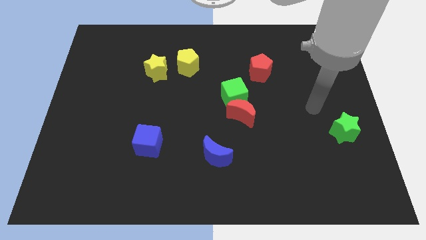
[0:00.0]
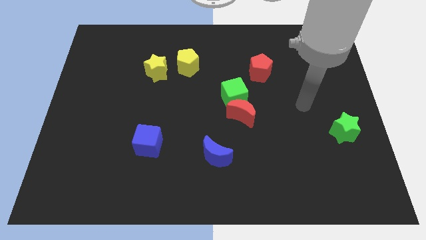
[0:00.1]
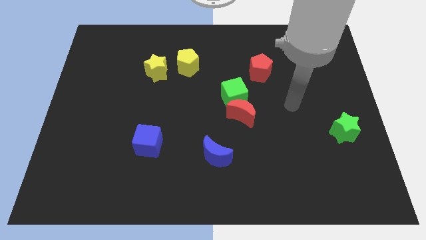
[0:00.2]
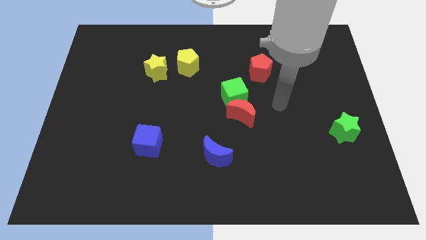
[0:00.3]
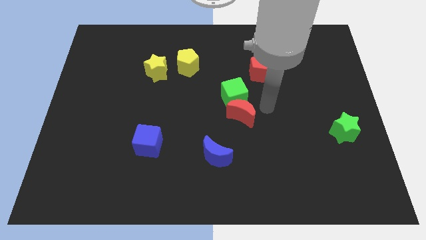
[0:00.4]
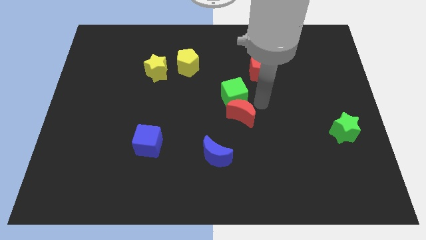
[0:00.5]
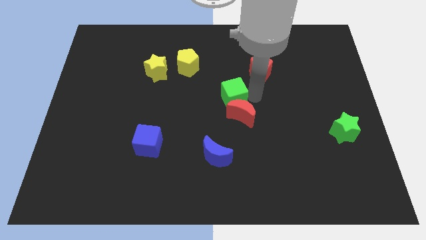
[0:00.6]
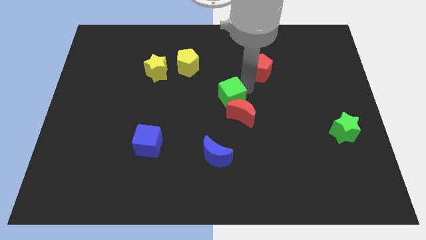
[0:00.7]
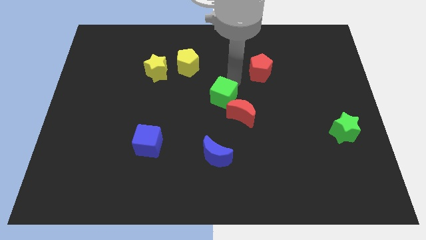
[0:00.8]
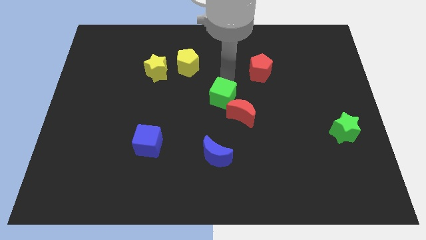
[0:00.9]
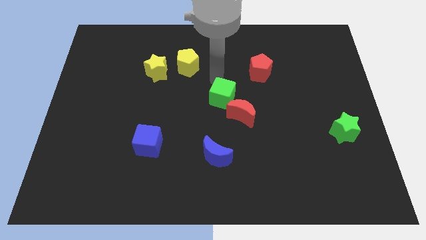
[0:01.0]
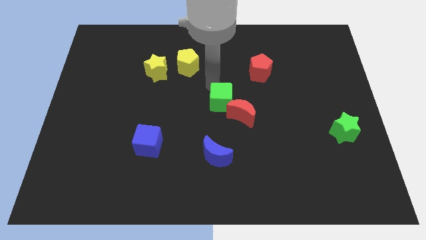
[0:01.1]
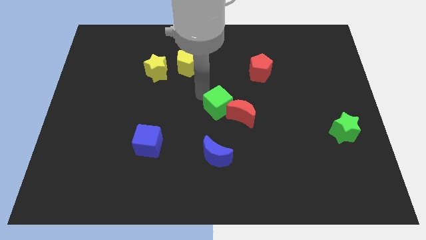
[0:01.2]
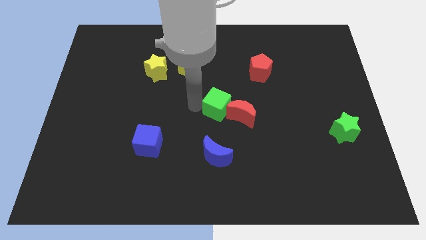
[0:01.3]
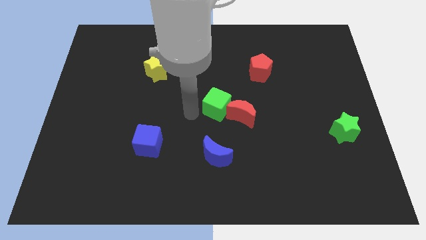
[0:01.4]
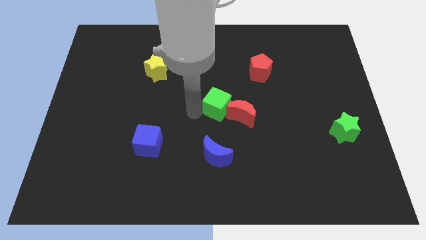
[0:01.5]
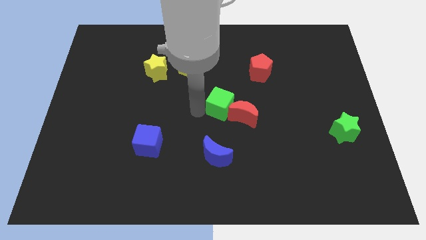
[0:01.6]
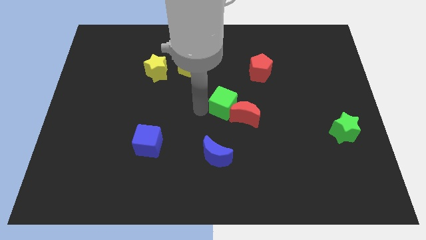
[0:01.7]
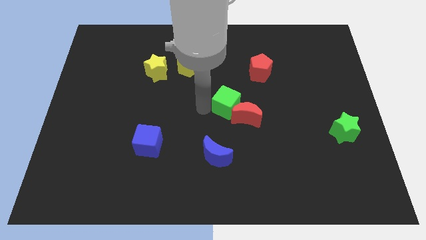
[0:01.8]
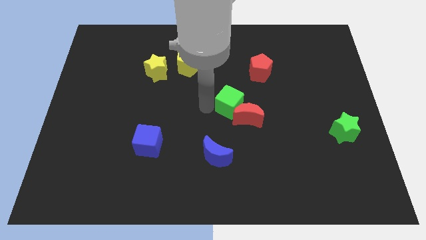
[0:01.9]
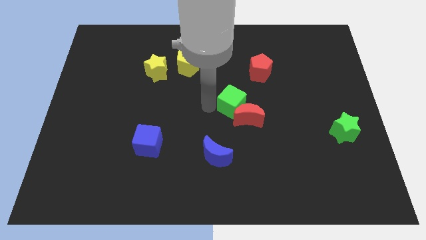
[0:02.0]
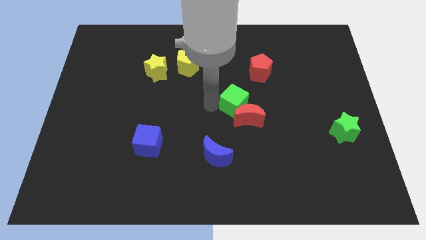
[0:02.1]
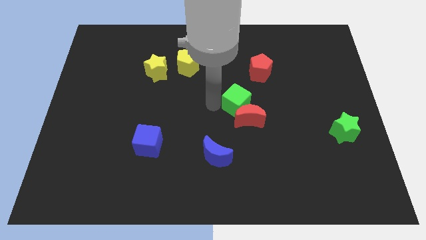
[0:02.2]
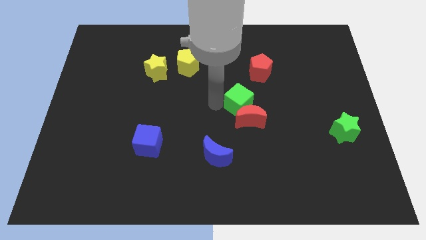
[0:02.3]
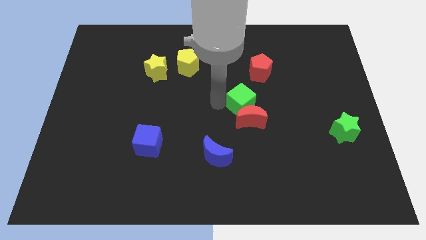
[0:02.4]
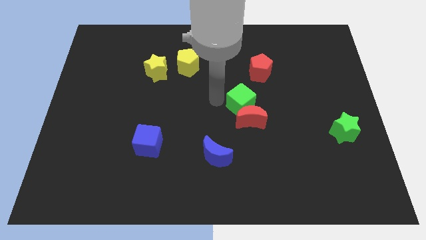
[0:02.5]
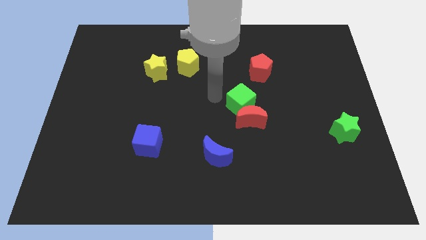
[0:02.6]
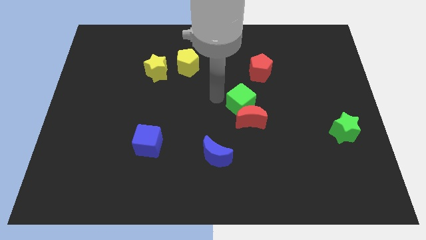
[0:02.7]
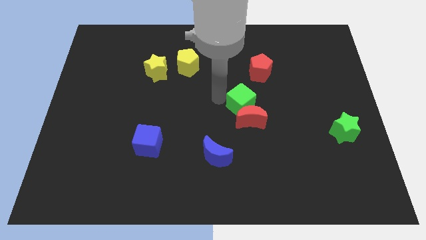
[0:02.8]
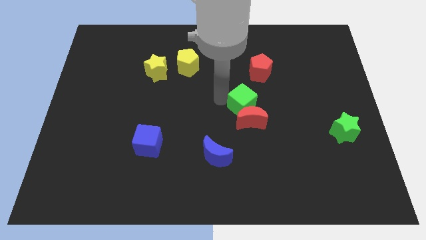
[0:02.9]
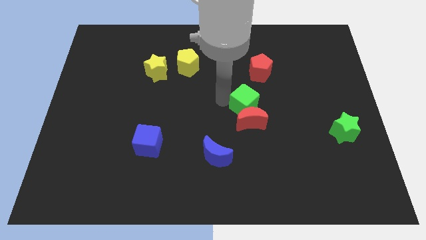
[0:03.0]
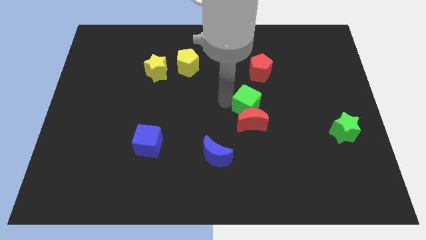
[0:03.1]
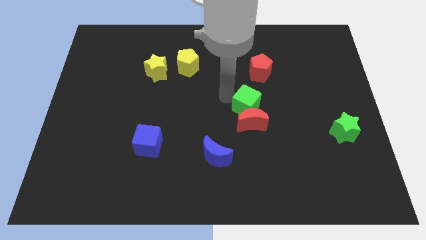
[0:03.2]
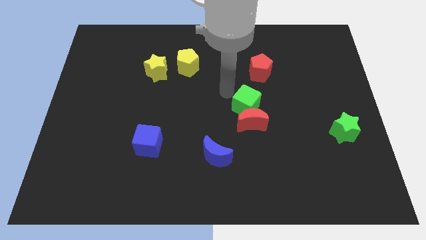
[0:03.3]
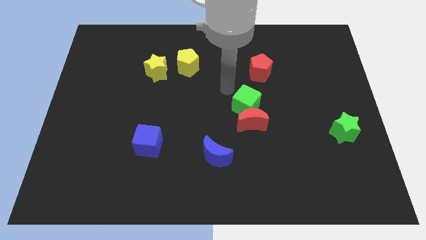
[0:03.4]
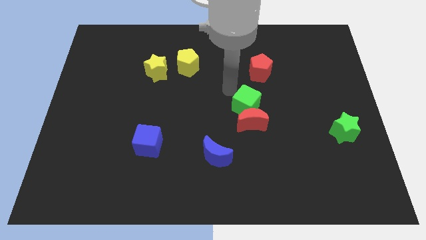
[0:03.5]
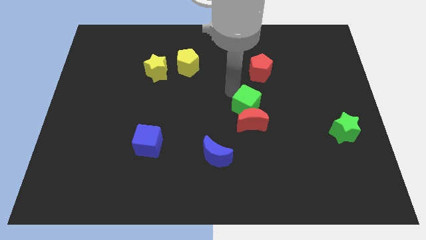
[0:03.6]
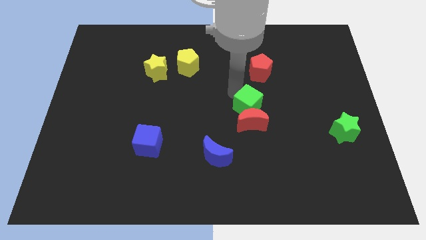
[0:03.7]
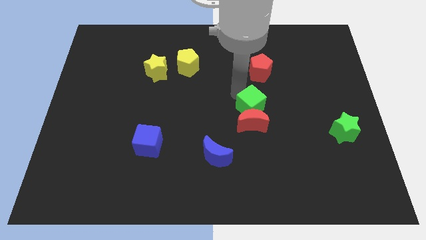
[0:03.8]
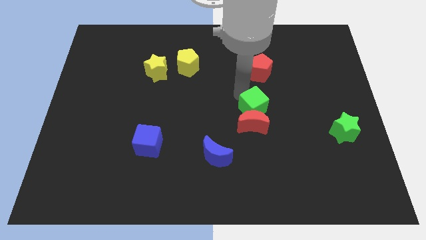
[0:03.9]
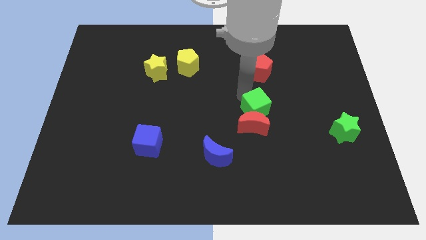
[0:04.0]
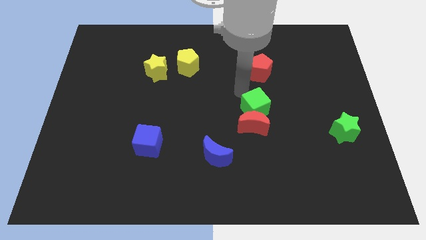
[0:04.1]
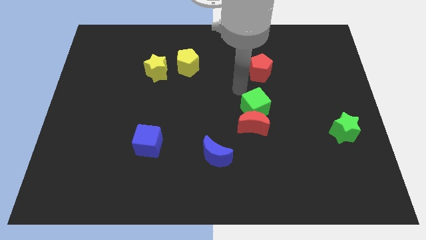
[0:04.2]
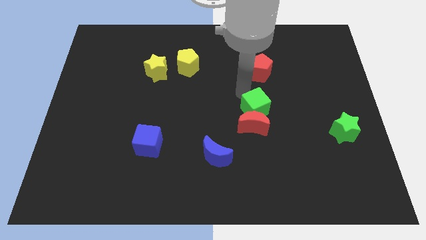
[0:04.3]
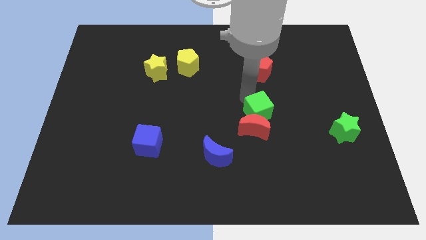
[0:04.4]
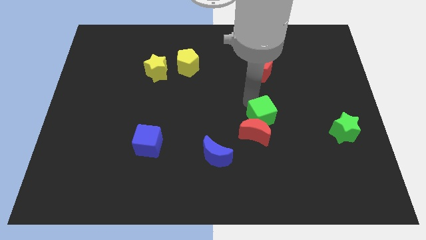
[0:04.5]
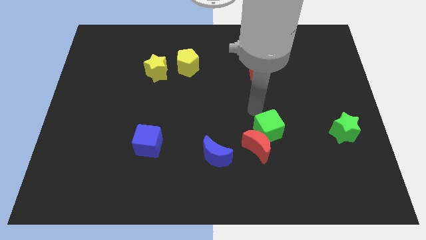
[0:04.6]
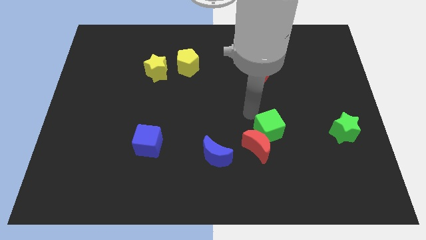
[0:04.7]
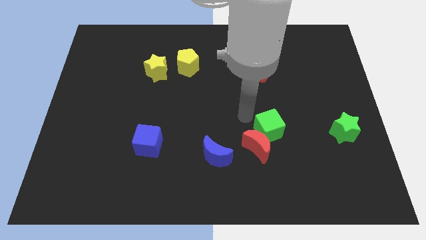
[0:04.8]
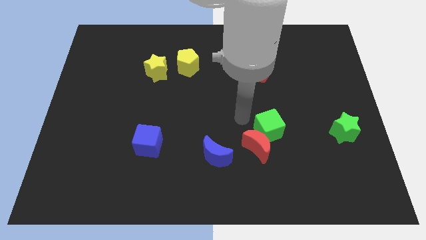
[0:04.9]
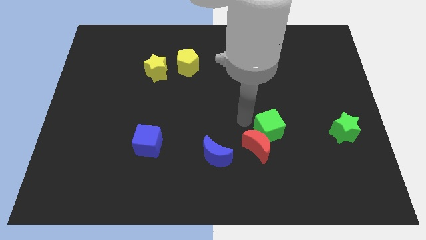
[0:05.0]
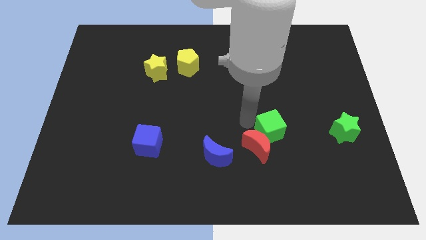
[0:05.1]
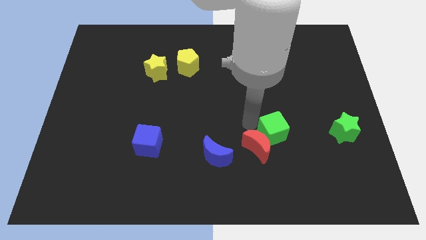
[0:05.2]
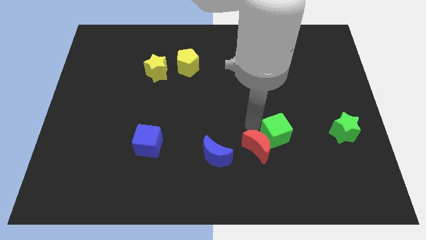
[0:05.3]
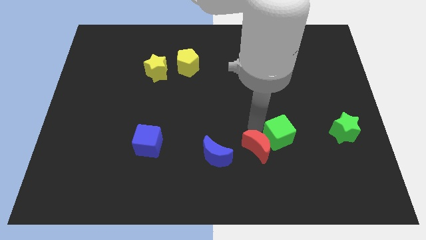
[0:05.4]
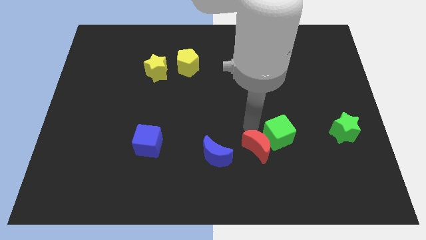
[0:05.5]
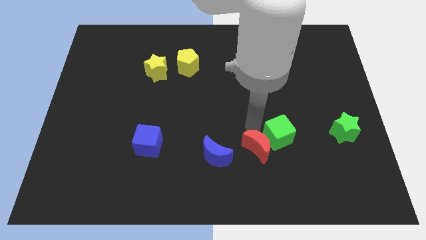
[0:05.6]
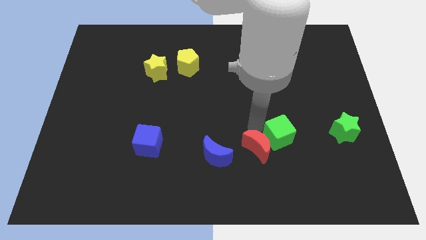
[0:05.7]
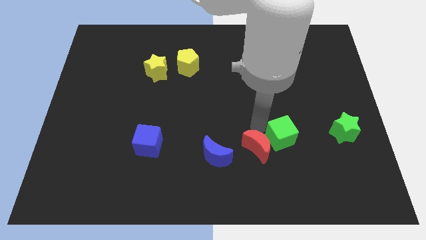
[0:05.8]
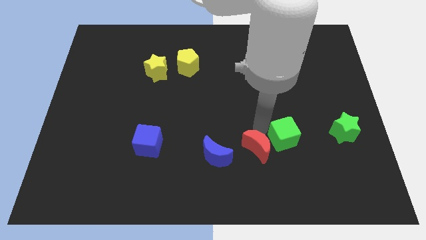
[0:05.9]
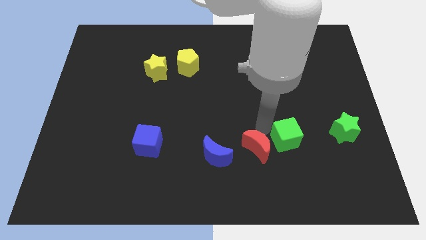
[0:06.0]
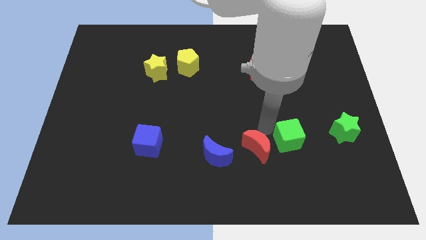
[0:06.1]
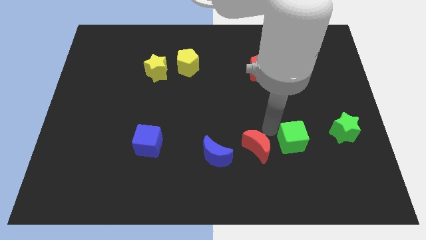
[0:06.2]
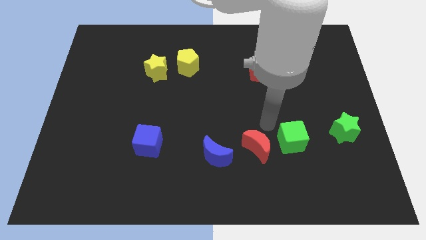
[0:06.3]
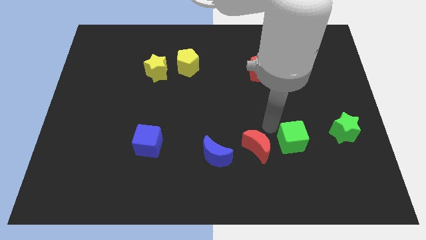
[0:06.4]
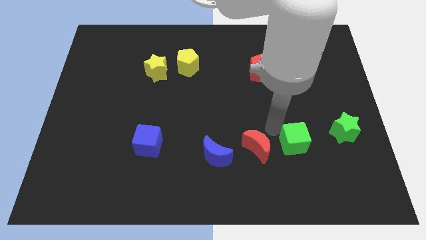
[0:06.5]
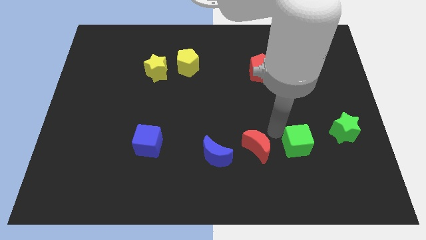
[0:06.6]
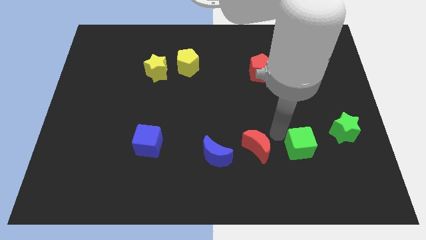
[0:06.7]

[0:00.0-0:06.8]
push the green cube down and to the right

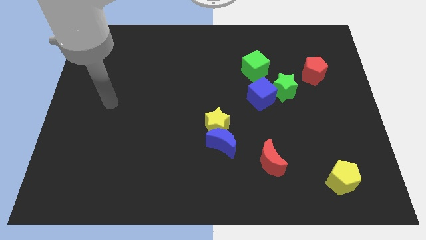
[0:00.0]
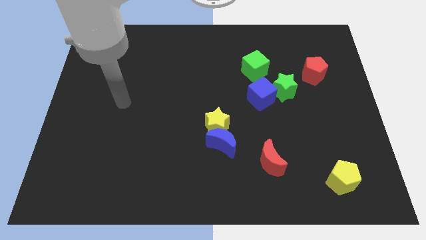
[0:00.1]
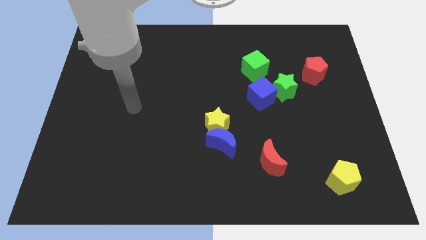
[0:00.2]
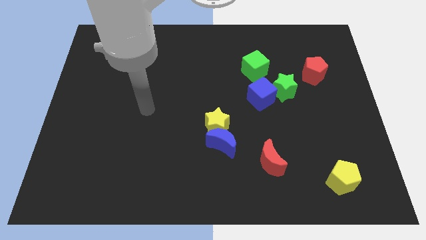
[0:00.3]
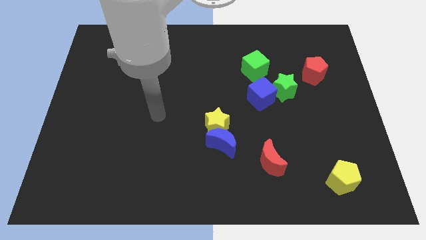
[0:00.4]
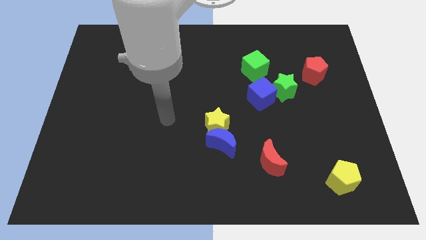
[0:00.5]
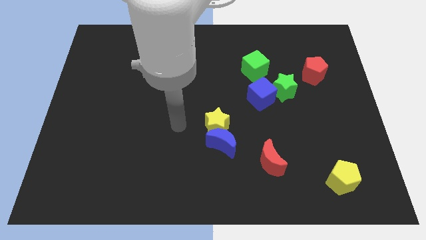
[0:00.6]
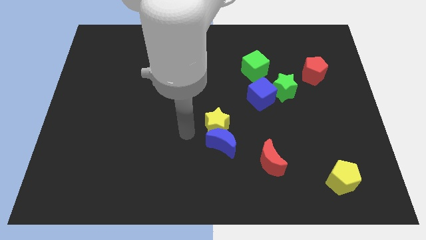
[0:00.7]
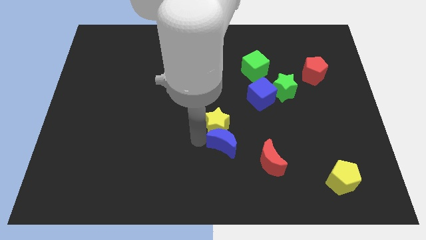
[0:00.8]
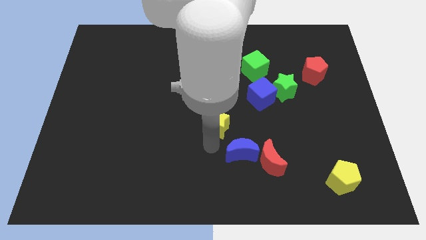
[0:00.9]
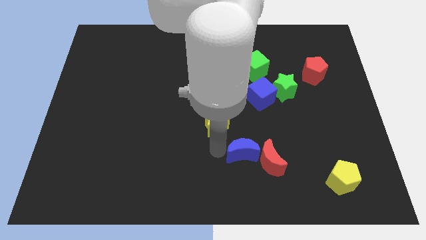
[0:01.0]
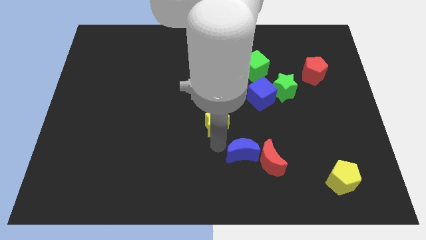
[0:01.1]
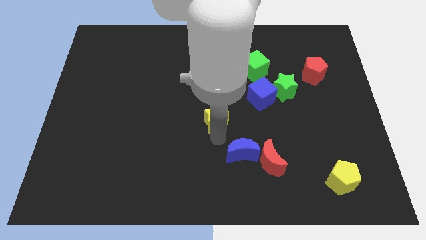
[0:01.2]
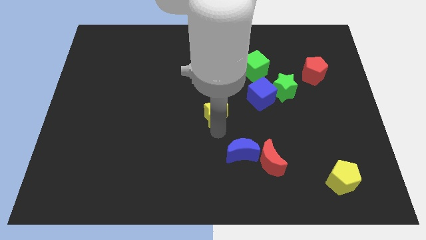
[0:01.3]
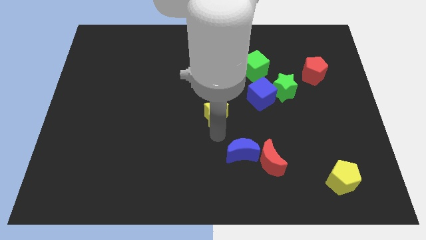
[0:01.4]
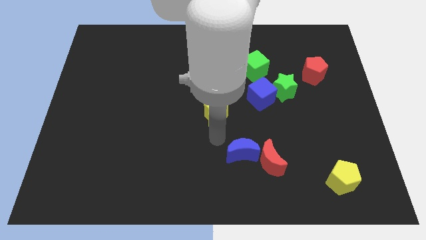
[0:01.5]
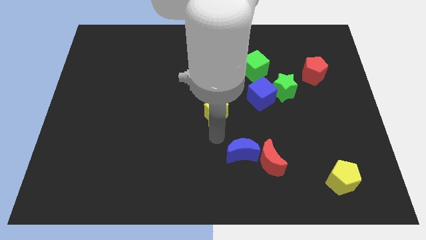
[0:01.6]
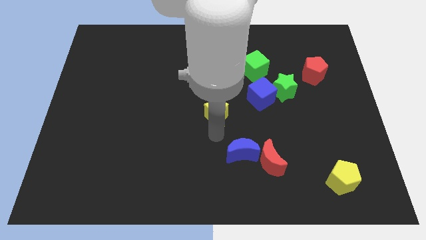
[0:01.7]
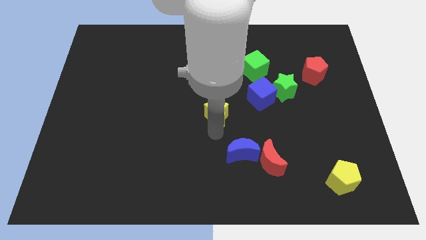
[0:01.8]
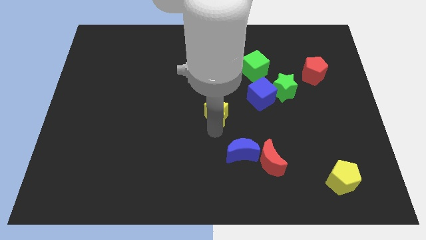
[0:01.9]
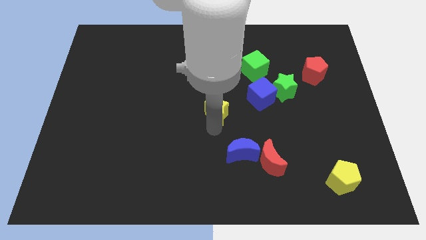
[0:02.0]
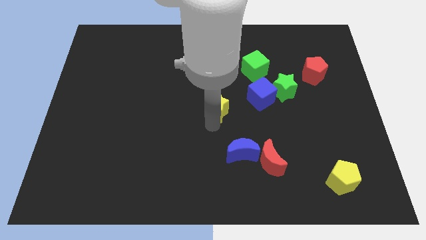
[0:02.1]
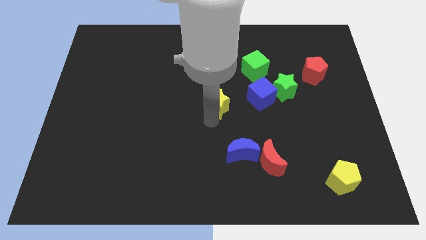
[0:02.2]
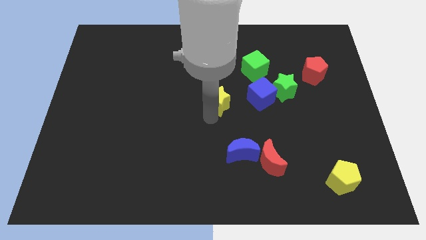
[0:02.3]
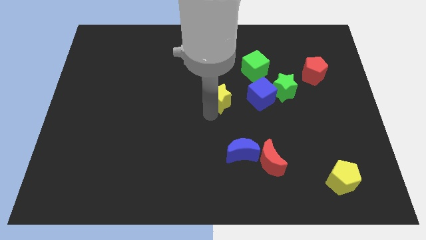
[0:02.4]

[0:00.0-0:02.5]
slightly slide the yellow star upwards
